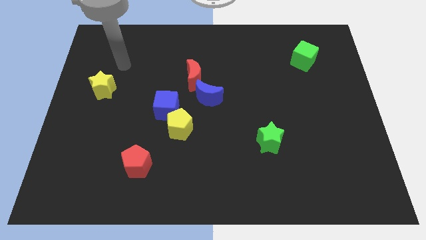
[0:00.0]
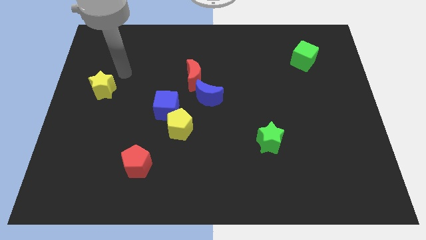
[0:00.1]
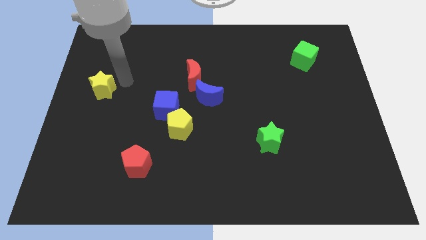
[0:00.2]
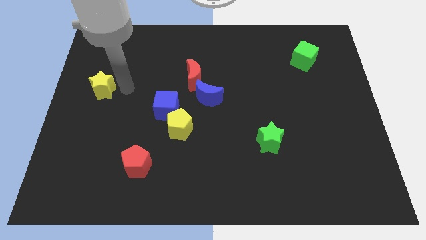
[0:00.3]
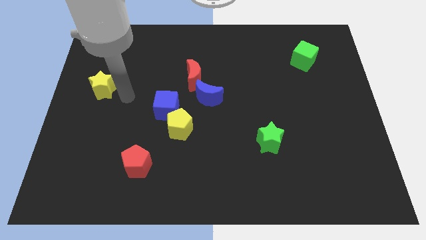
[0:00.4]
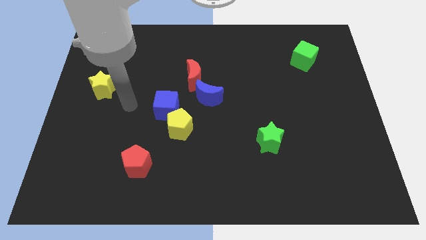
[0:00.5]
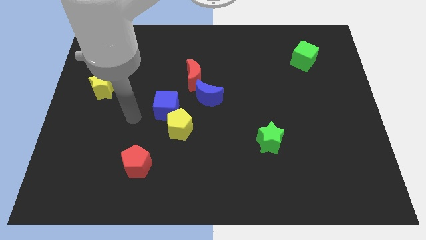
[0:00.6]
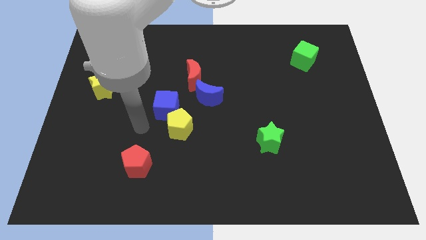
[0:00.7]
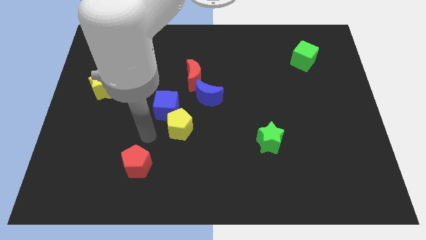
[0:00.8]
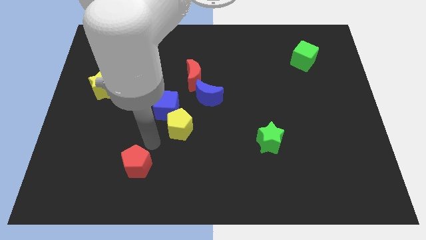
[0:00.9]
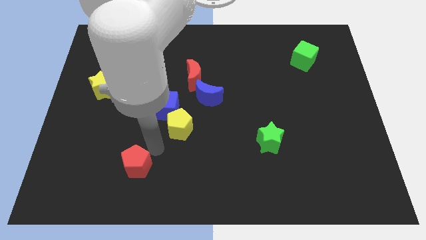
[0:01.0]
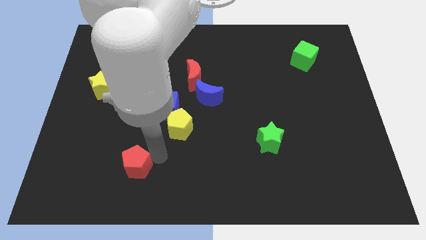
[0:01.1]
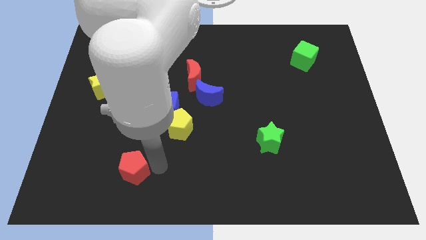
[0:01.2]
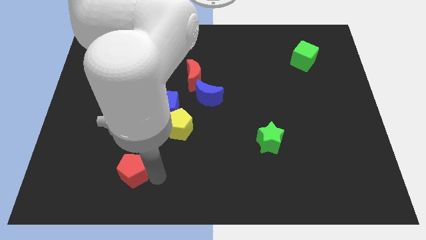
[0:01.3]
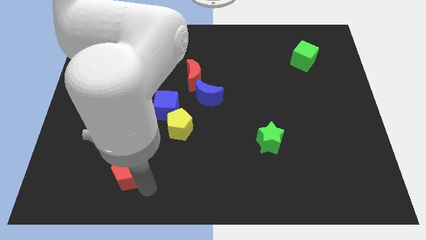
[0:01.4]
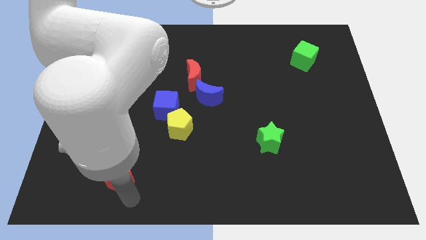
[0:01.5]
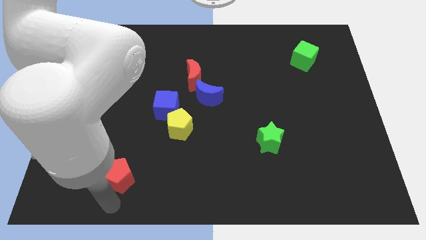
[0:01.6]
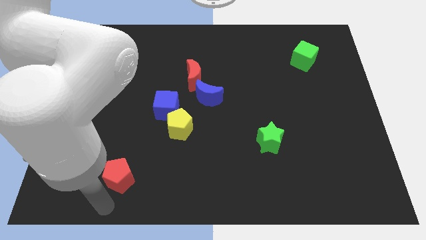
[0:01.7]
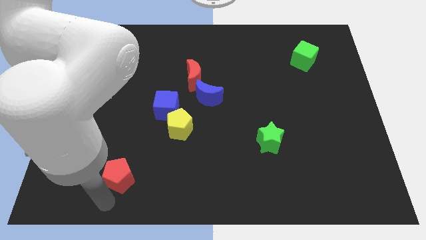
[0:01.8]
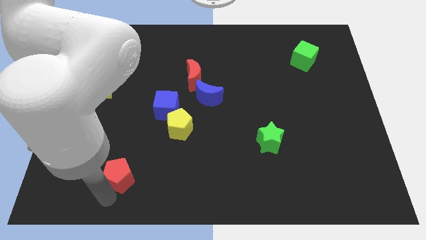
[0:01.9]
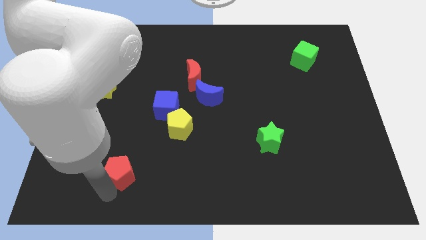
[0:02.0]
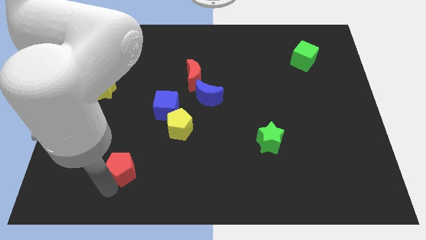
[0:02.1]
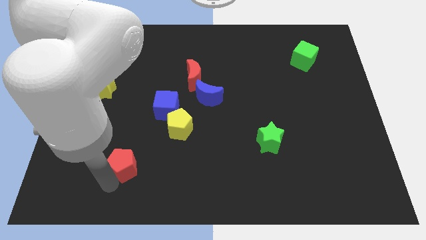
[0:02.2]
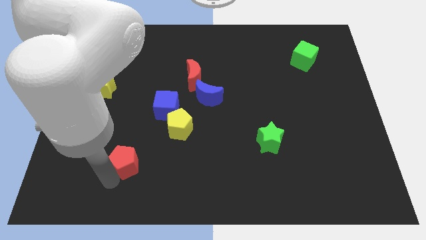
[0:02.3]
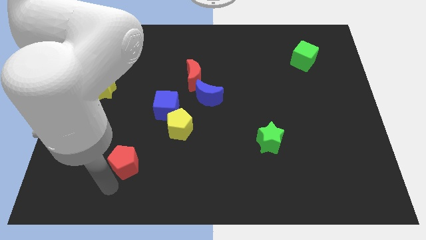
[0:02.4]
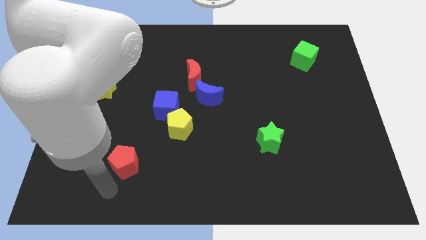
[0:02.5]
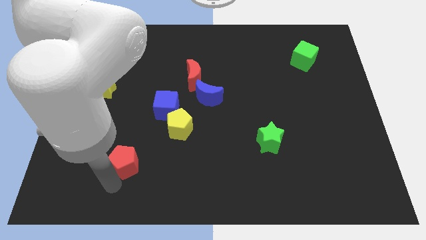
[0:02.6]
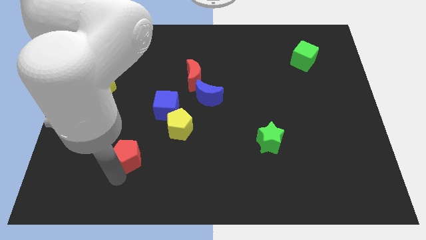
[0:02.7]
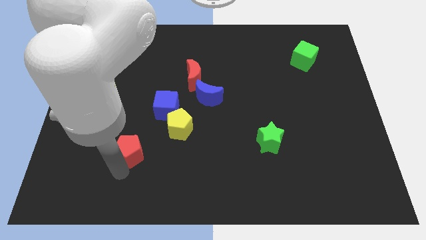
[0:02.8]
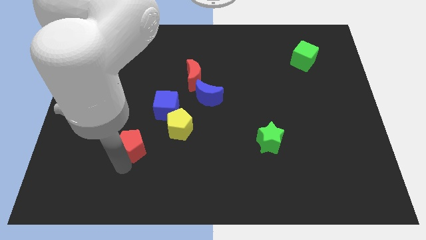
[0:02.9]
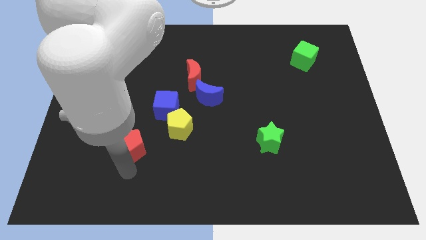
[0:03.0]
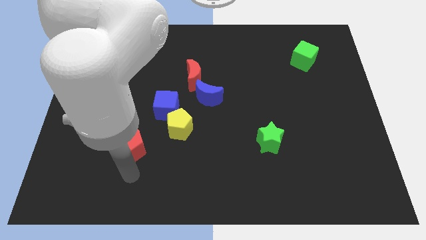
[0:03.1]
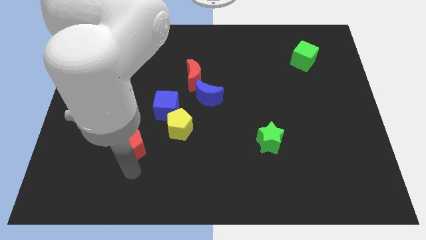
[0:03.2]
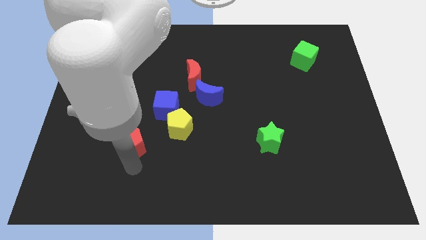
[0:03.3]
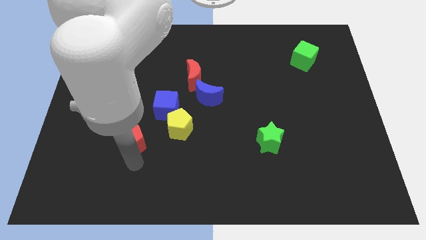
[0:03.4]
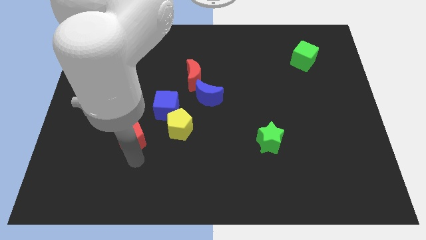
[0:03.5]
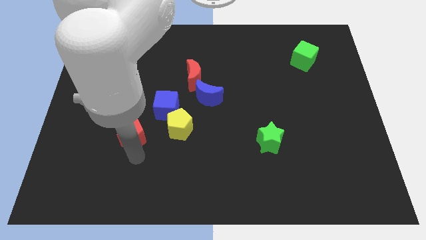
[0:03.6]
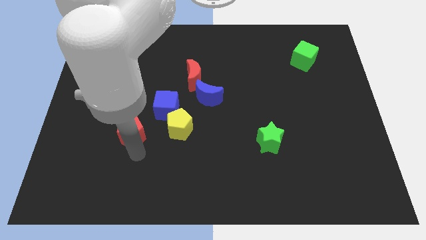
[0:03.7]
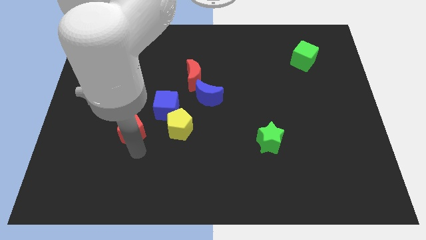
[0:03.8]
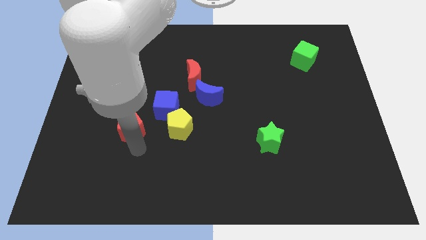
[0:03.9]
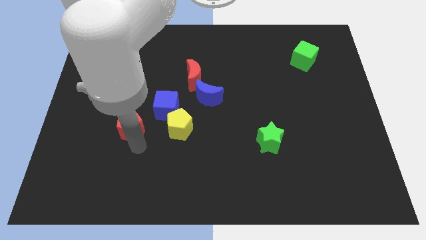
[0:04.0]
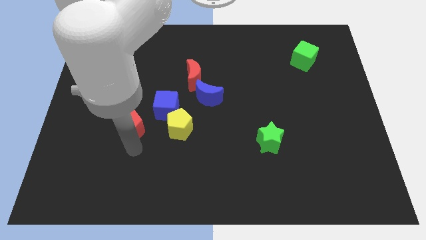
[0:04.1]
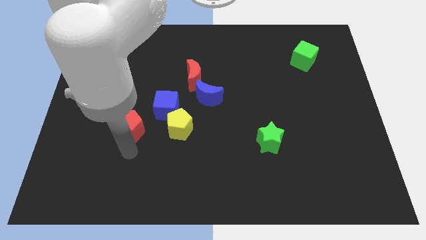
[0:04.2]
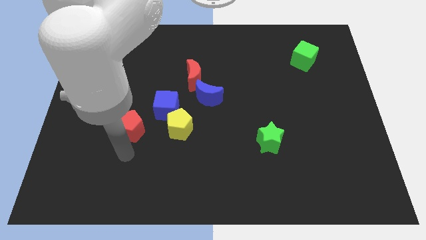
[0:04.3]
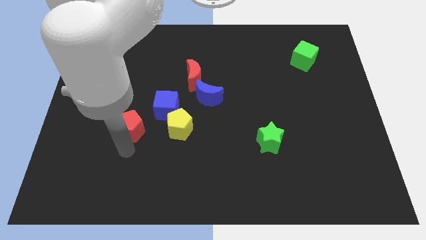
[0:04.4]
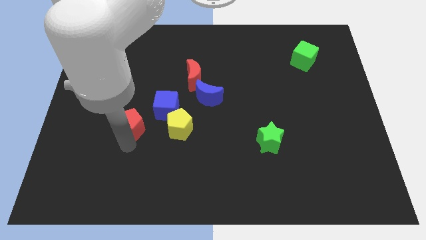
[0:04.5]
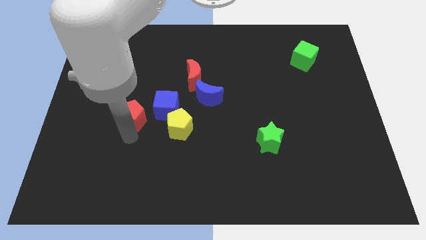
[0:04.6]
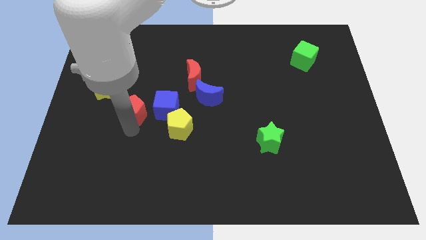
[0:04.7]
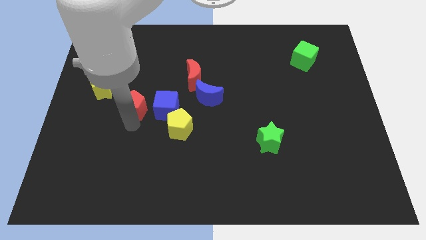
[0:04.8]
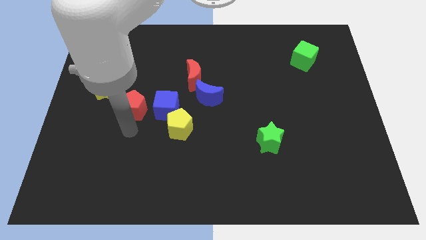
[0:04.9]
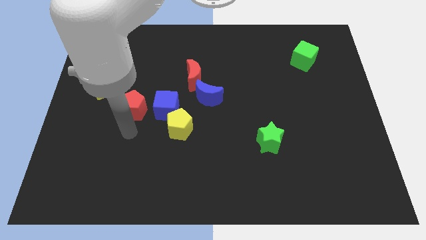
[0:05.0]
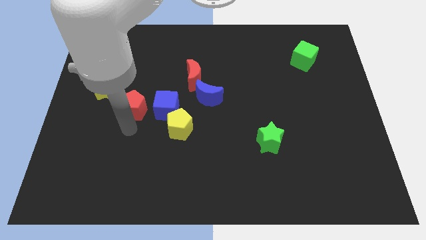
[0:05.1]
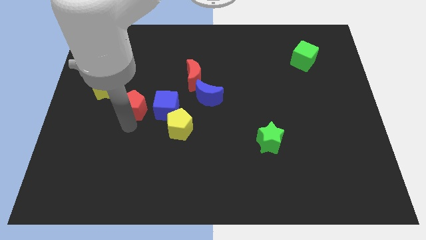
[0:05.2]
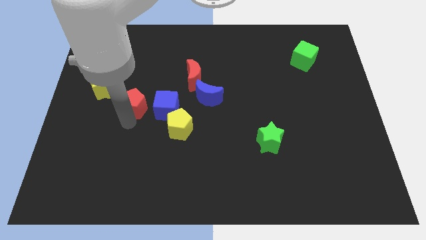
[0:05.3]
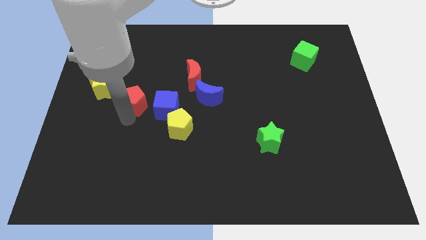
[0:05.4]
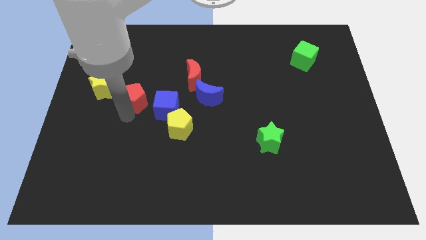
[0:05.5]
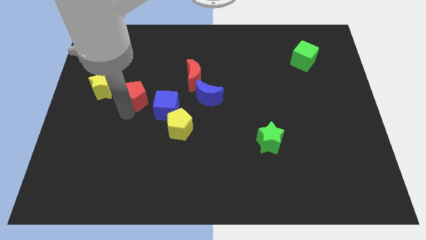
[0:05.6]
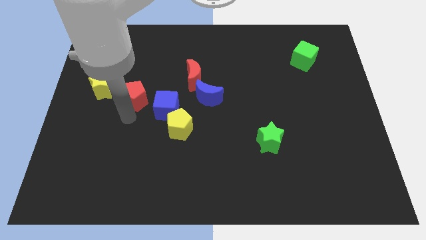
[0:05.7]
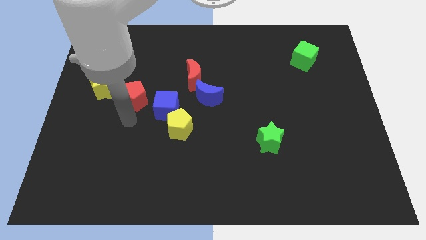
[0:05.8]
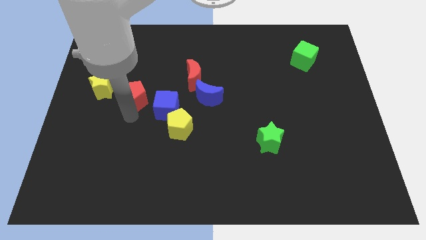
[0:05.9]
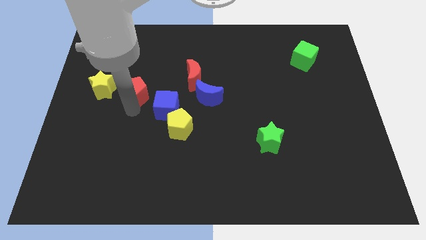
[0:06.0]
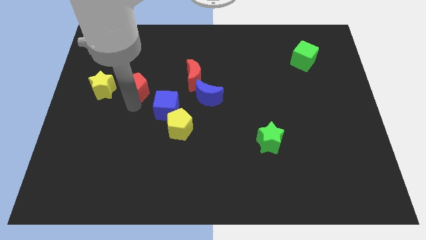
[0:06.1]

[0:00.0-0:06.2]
push the red pentagon upwards

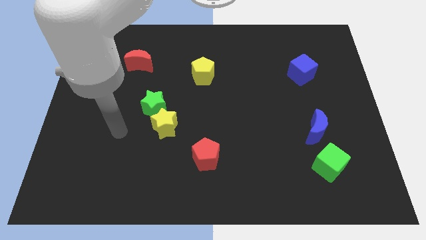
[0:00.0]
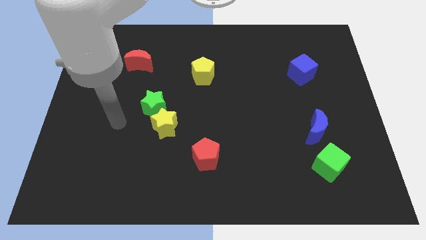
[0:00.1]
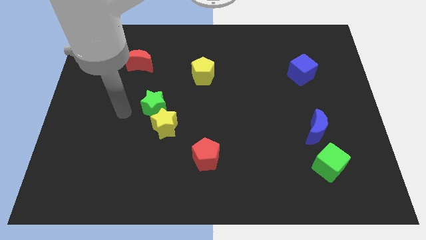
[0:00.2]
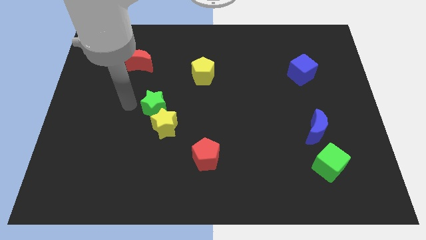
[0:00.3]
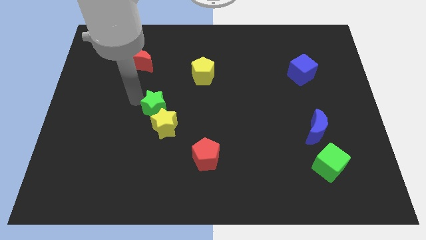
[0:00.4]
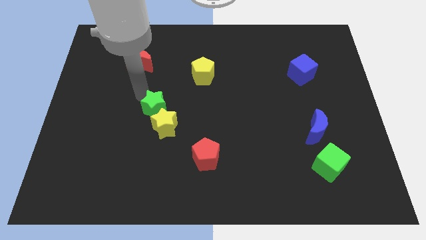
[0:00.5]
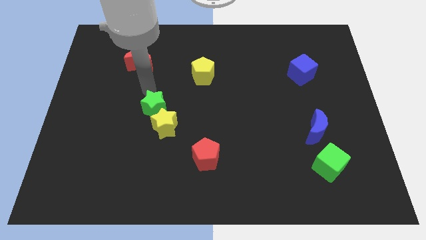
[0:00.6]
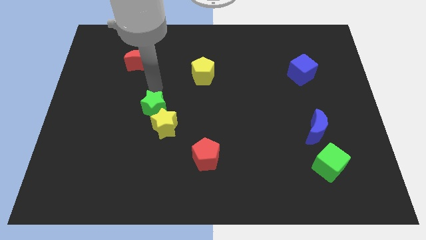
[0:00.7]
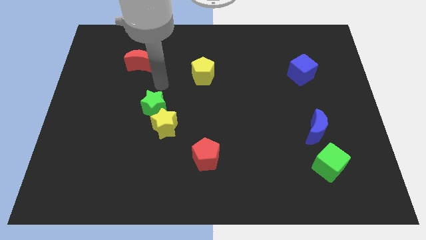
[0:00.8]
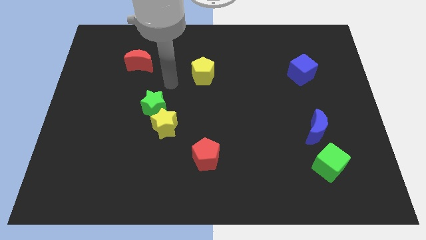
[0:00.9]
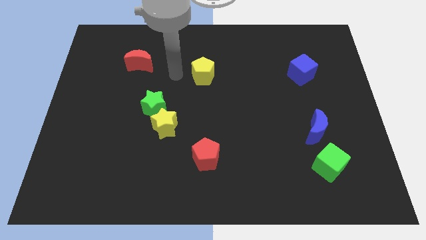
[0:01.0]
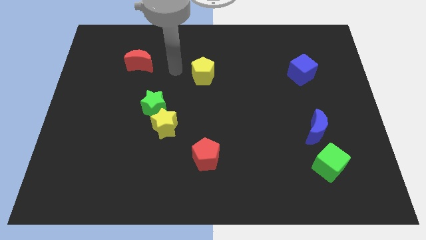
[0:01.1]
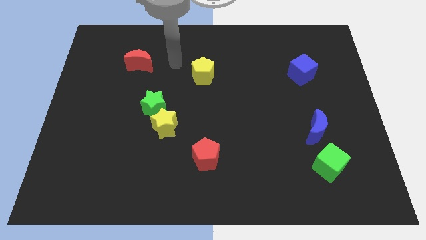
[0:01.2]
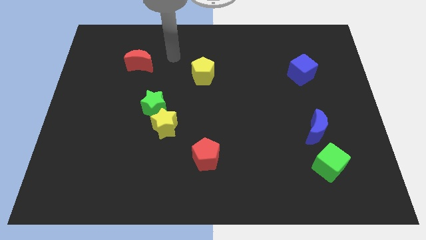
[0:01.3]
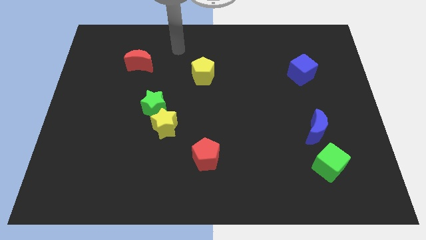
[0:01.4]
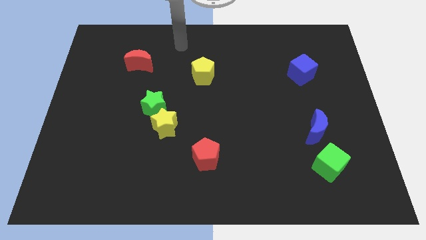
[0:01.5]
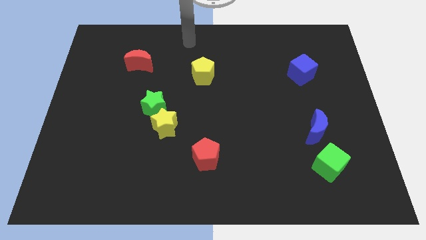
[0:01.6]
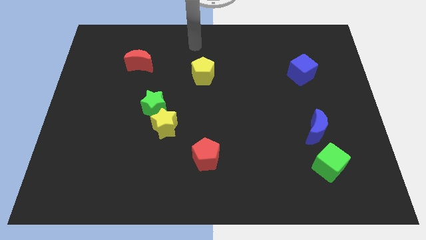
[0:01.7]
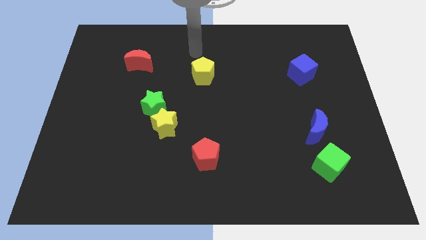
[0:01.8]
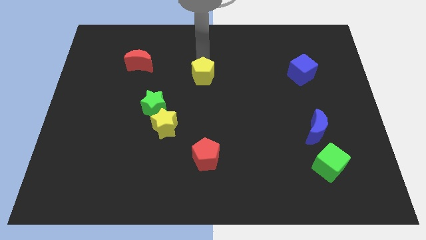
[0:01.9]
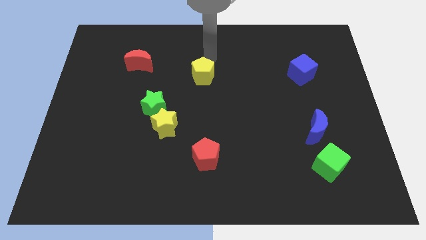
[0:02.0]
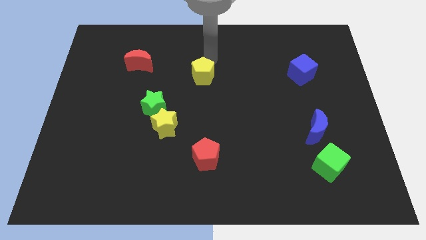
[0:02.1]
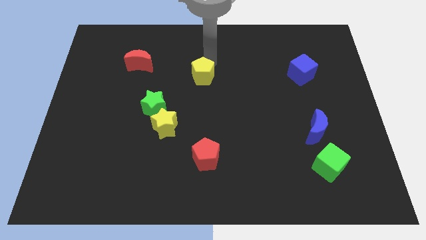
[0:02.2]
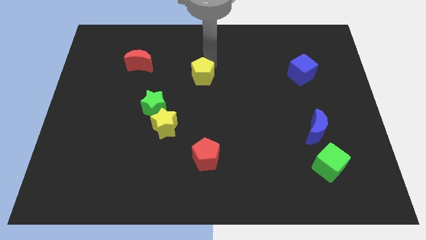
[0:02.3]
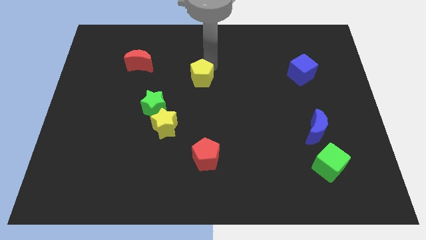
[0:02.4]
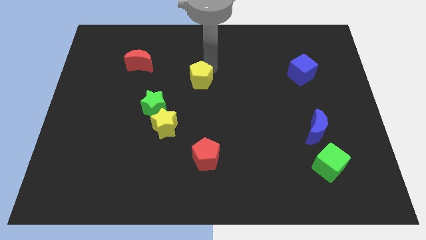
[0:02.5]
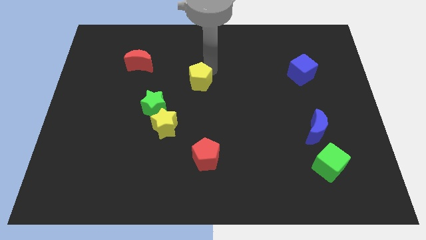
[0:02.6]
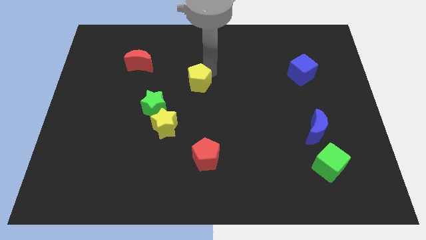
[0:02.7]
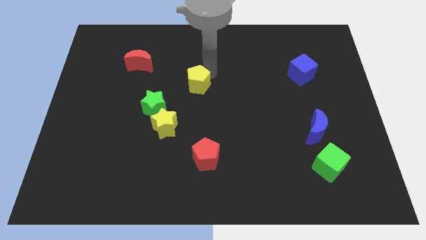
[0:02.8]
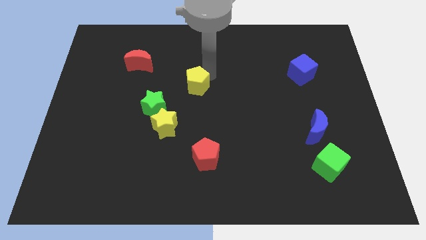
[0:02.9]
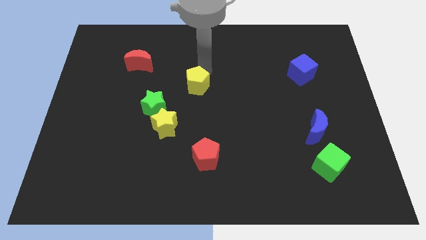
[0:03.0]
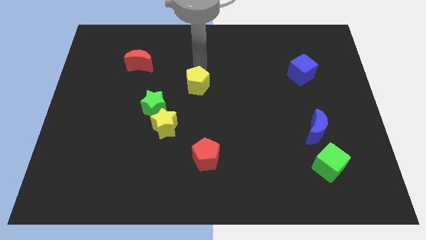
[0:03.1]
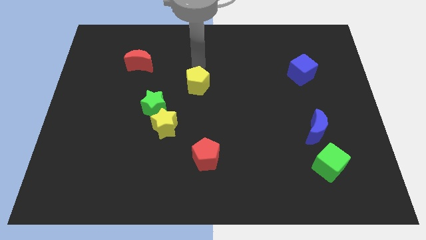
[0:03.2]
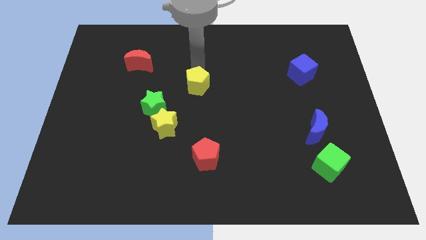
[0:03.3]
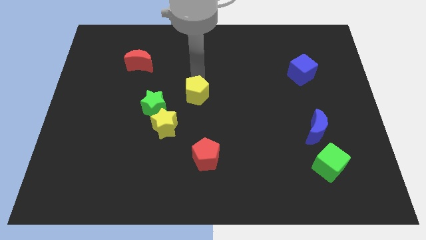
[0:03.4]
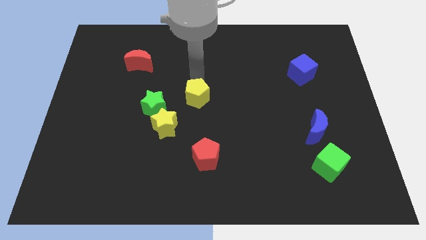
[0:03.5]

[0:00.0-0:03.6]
slightly slide the yellow pentagon downwards
